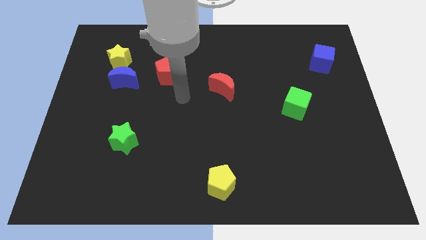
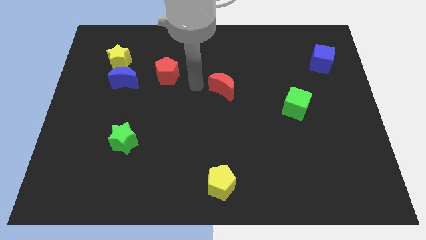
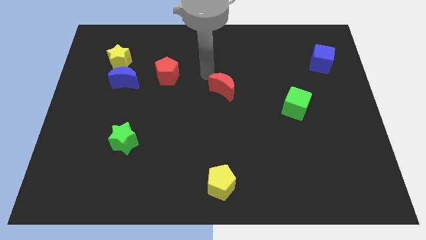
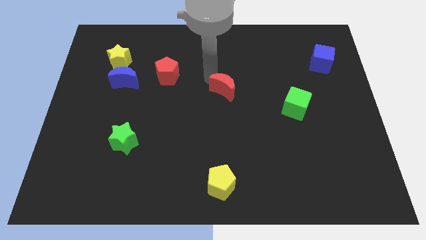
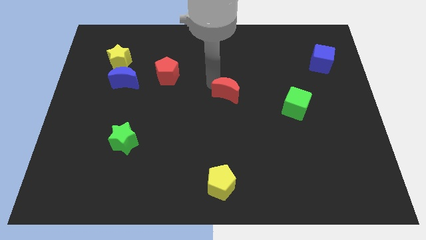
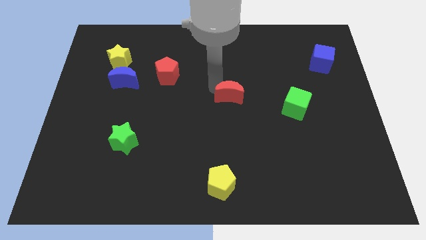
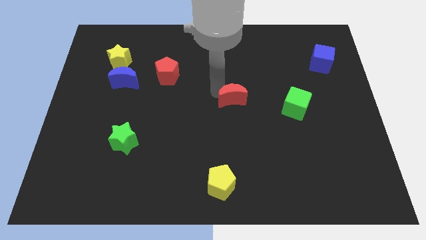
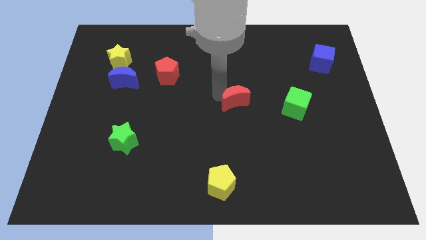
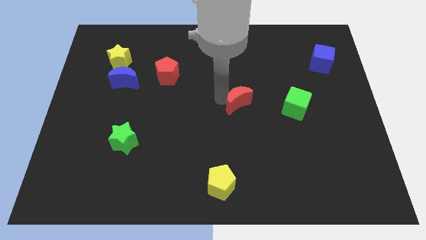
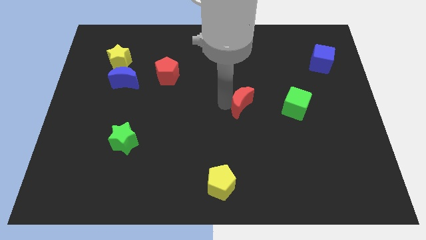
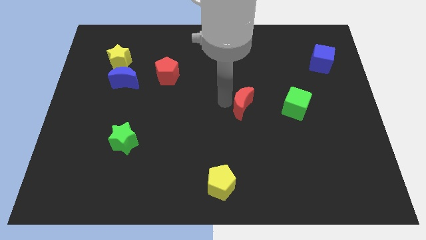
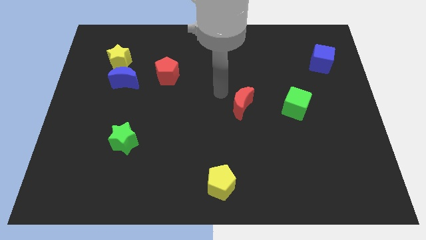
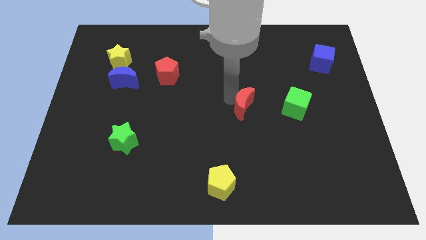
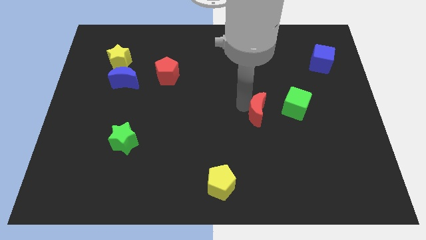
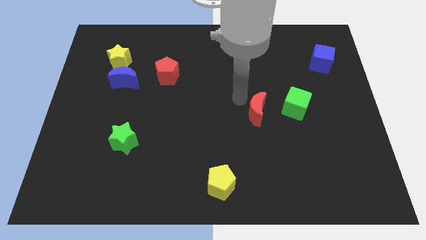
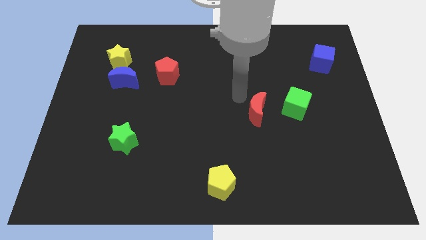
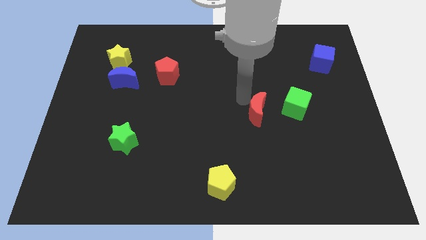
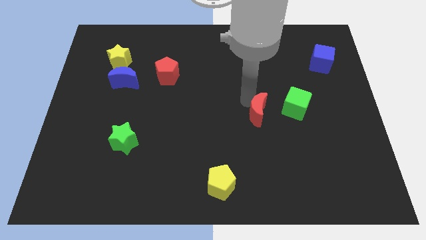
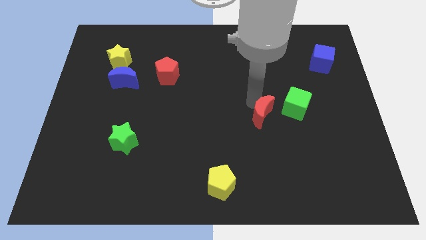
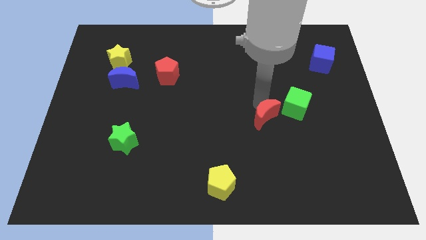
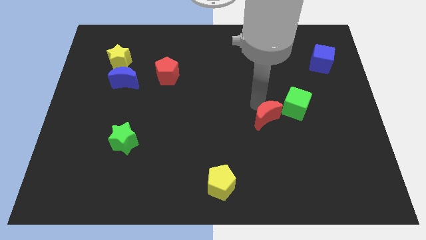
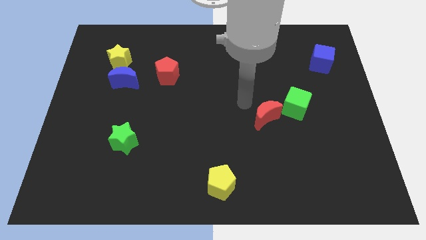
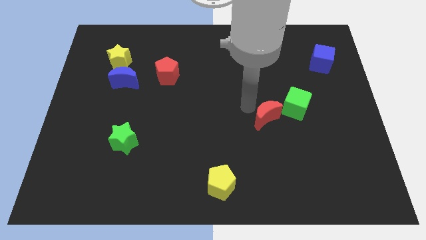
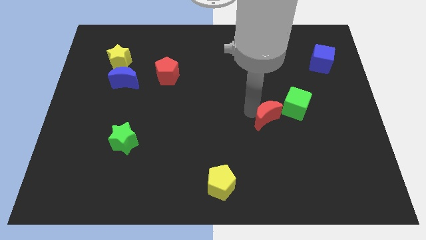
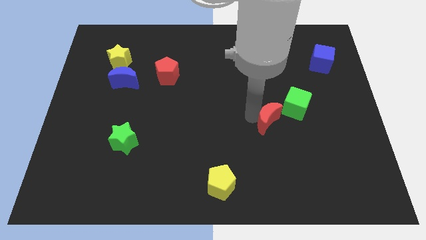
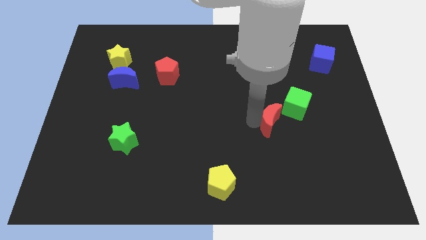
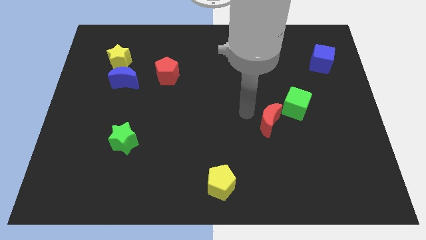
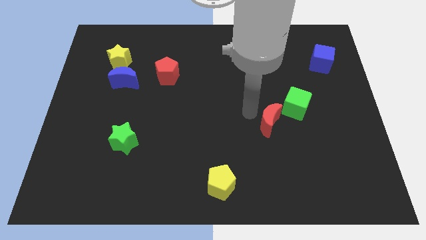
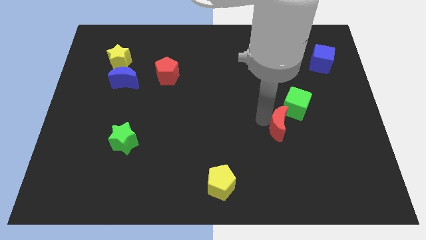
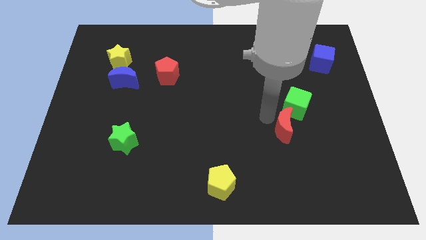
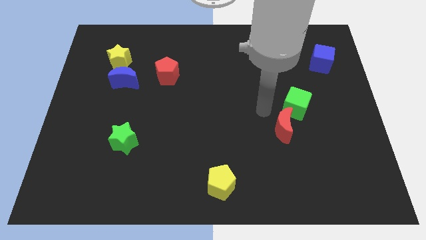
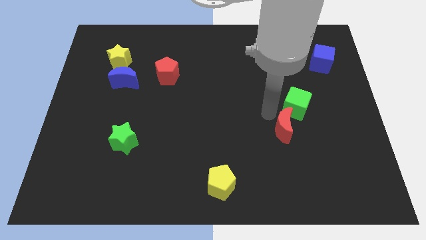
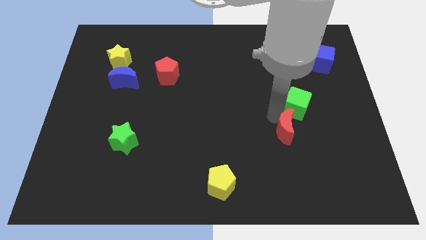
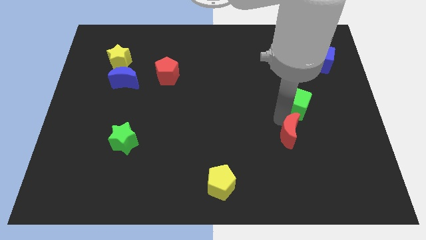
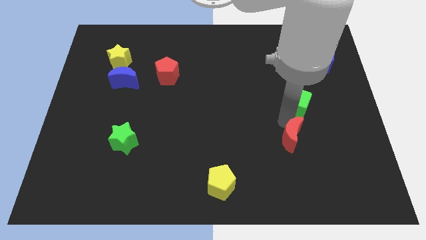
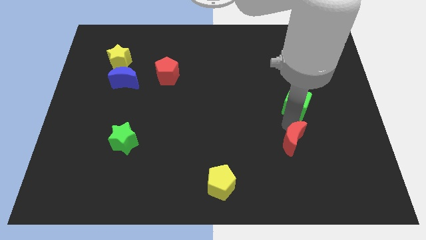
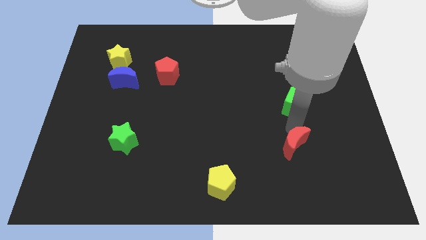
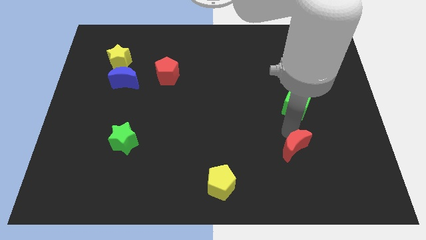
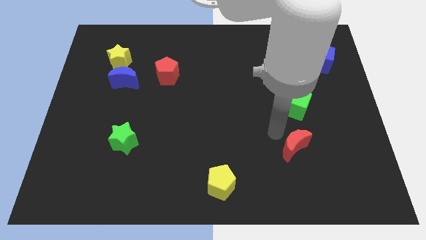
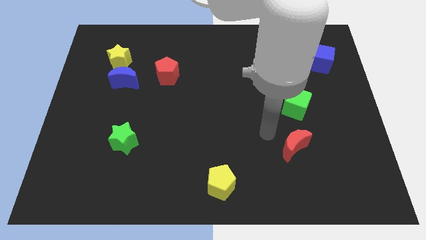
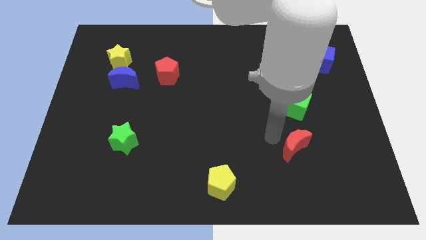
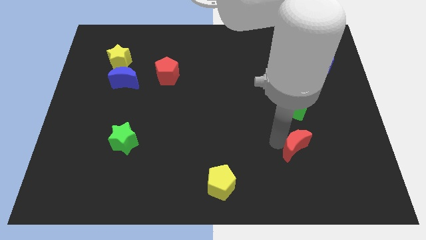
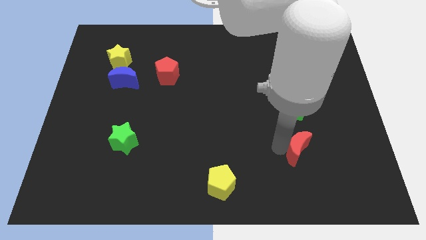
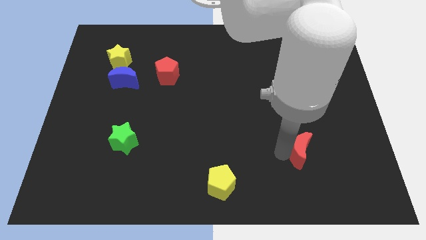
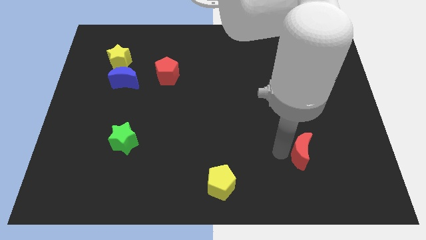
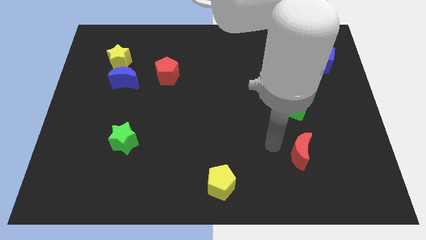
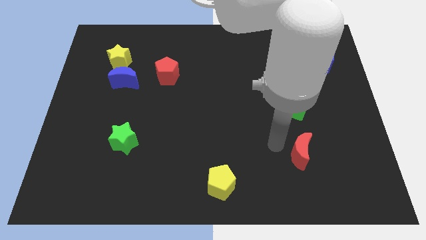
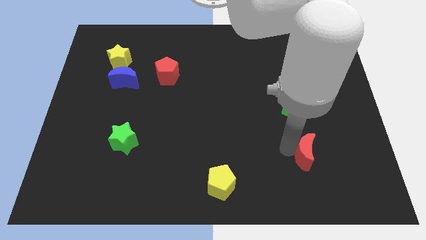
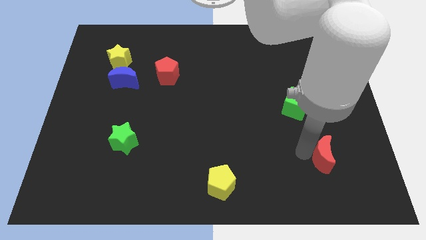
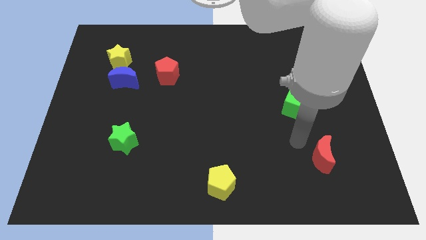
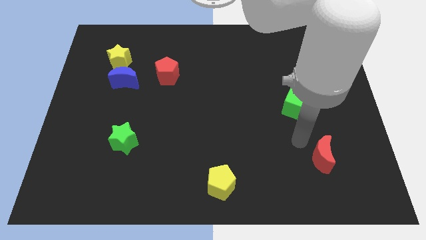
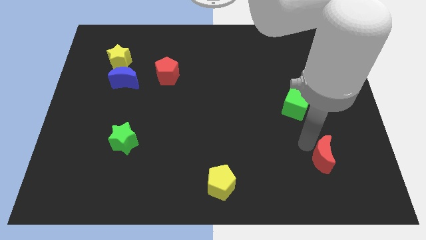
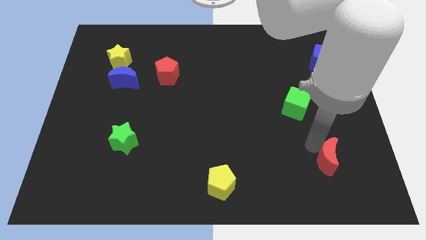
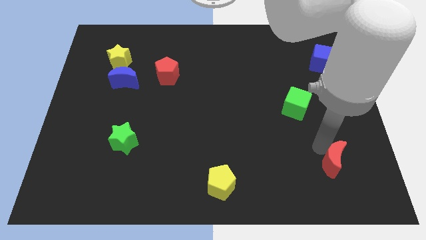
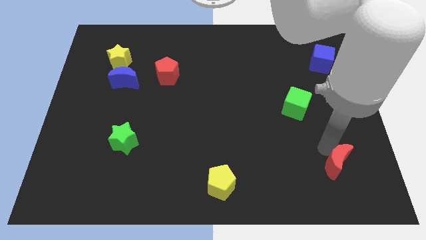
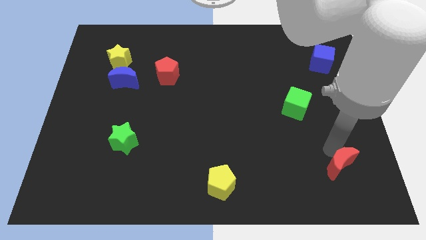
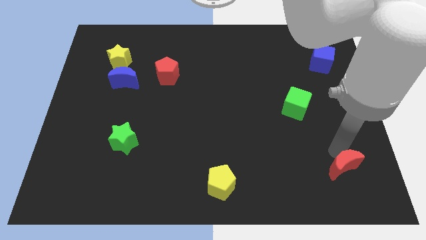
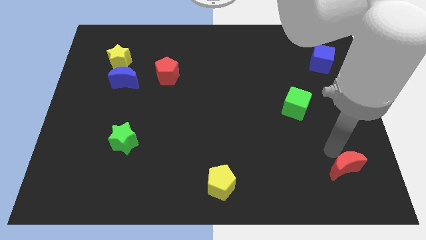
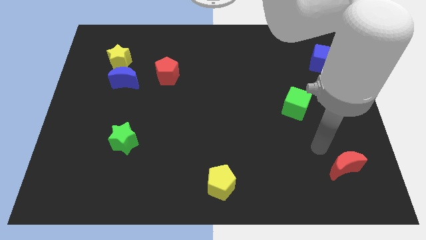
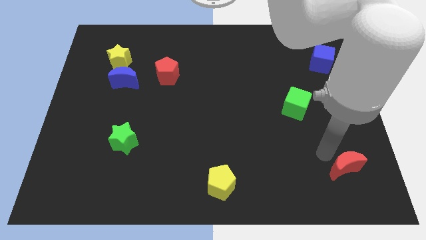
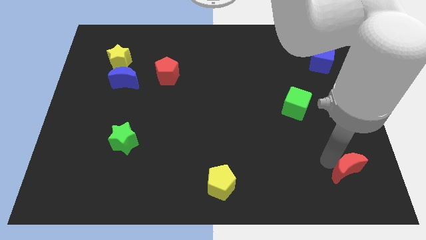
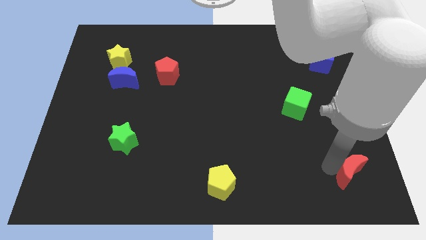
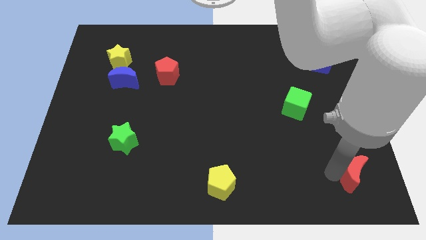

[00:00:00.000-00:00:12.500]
slide the red moon to the bottom right of the board
